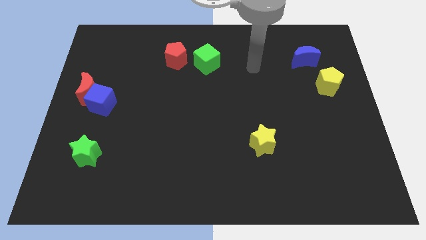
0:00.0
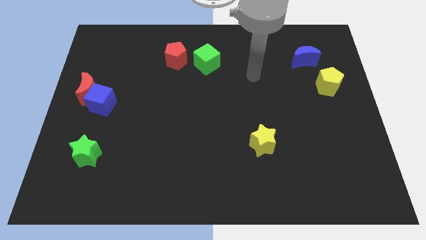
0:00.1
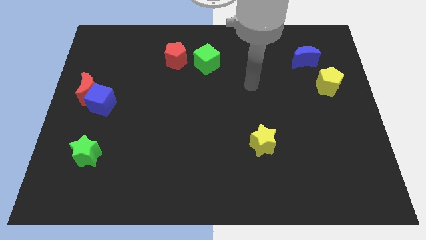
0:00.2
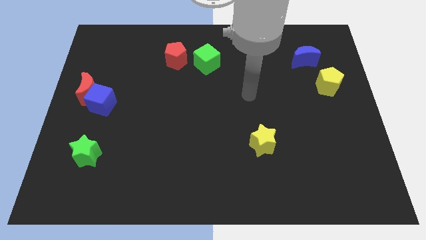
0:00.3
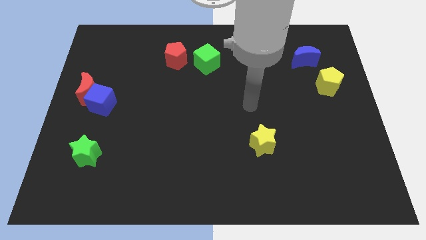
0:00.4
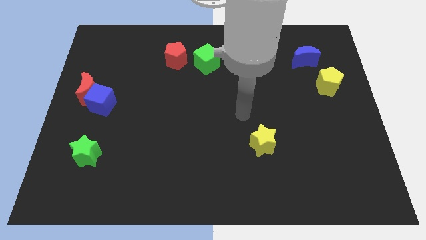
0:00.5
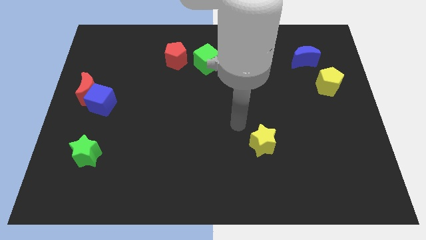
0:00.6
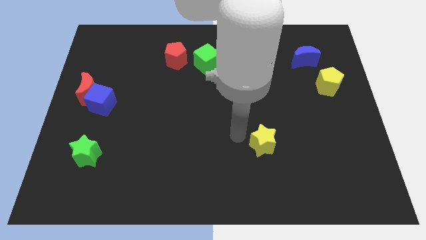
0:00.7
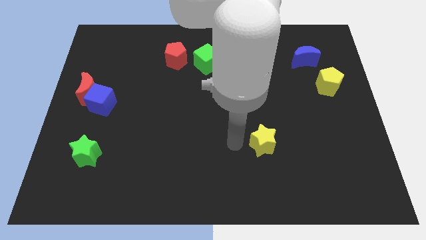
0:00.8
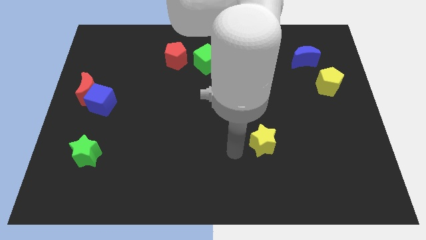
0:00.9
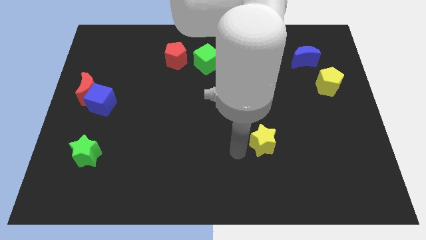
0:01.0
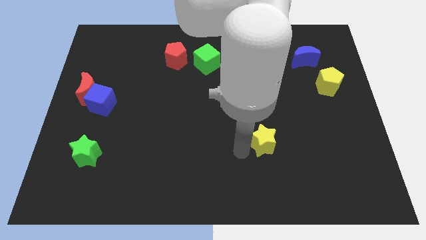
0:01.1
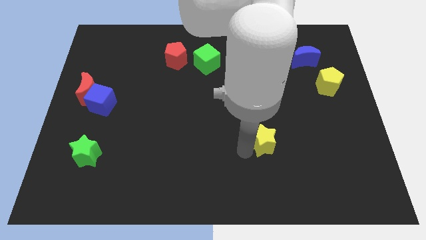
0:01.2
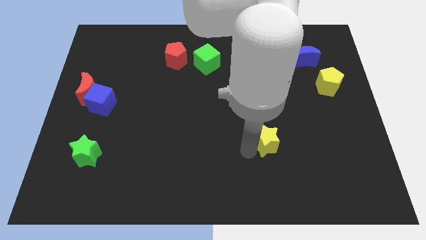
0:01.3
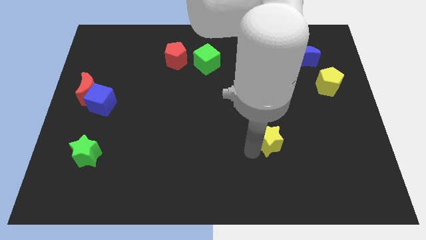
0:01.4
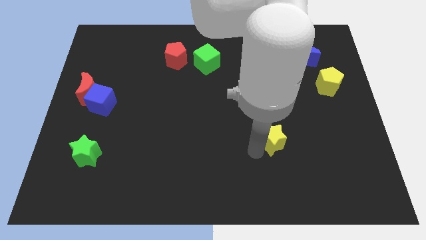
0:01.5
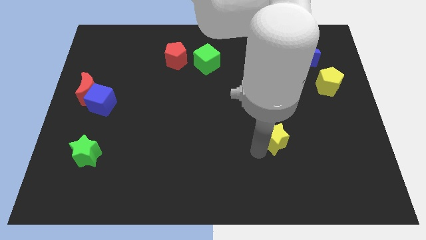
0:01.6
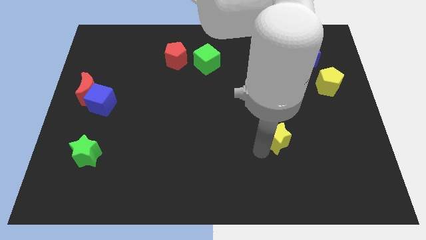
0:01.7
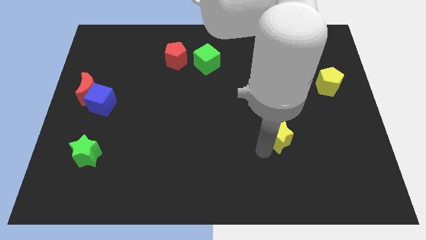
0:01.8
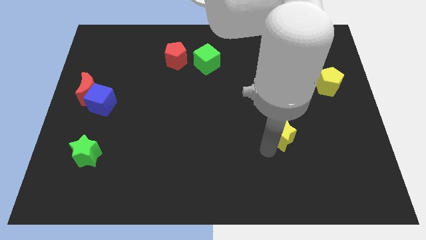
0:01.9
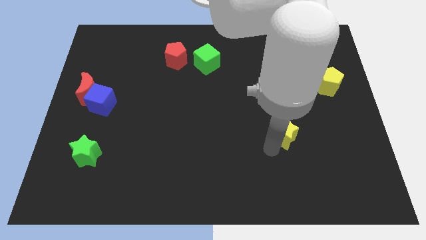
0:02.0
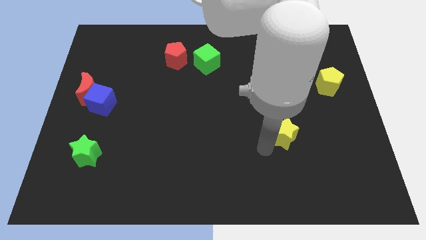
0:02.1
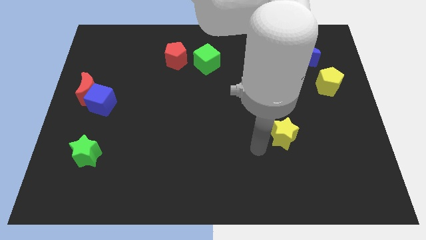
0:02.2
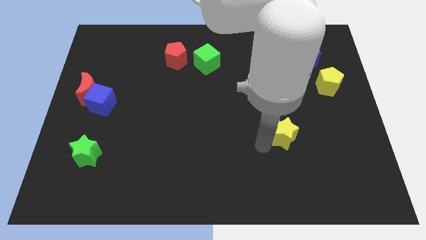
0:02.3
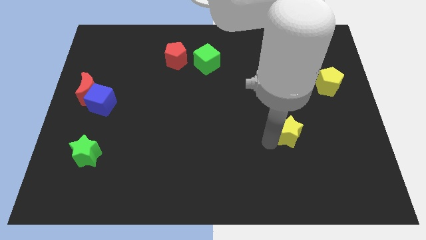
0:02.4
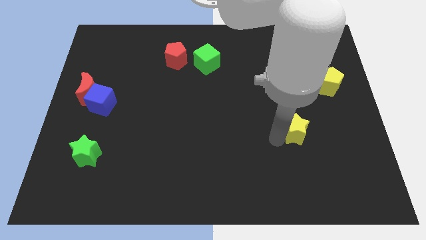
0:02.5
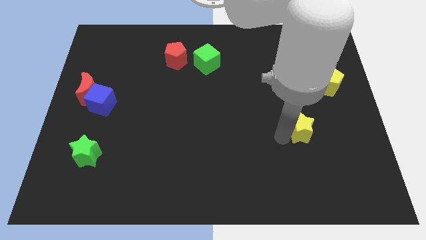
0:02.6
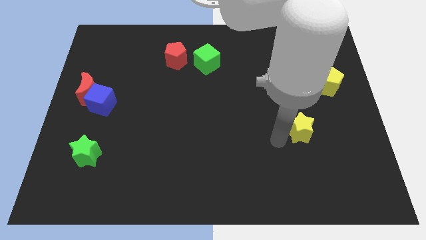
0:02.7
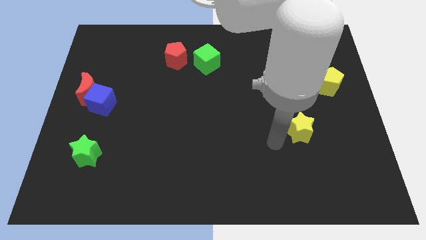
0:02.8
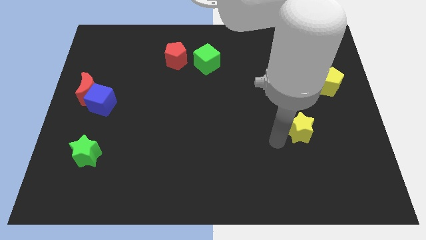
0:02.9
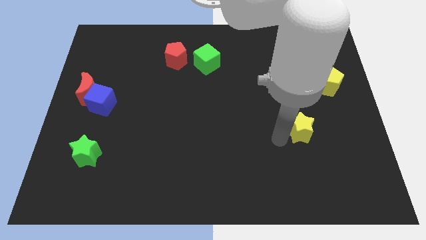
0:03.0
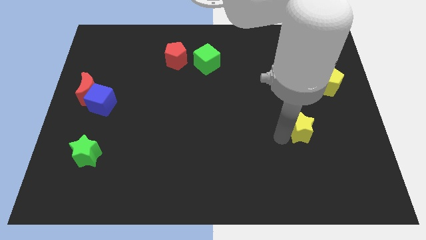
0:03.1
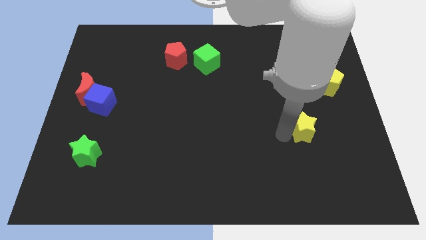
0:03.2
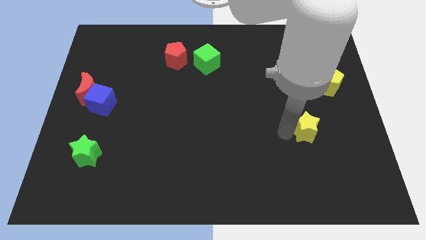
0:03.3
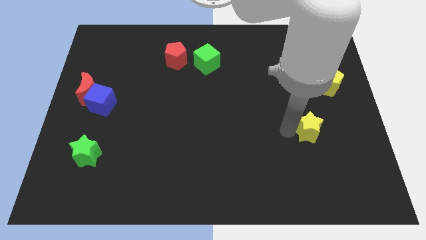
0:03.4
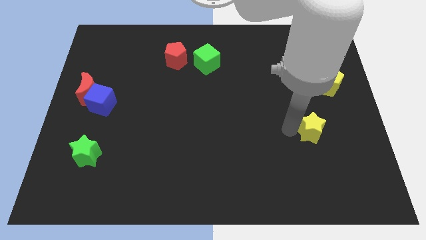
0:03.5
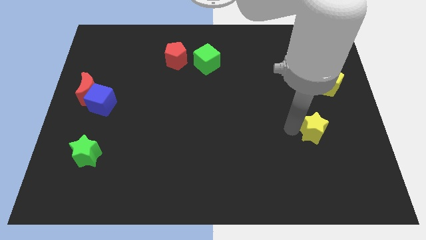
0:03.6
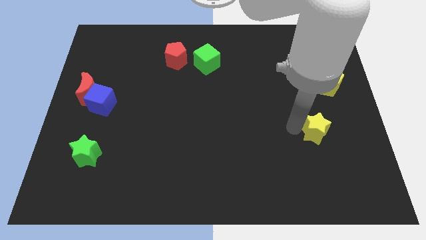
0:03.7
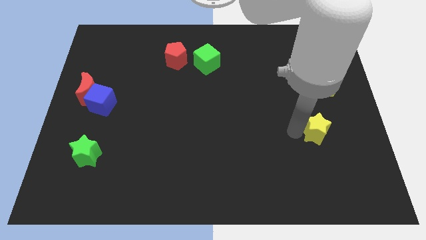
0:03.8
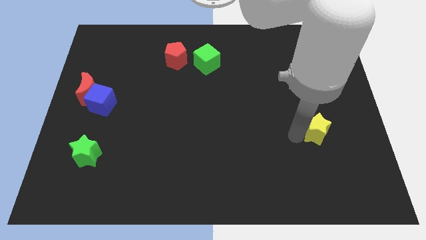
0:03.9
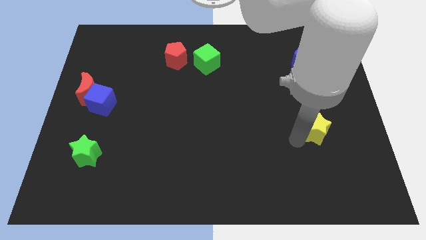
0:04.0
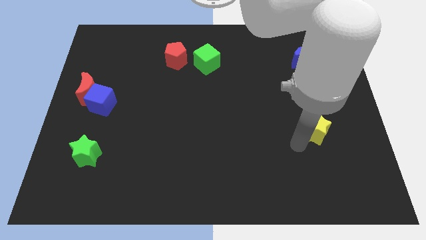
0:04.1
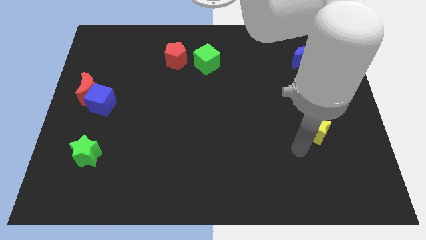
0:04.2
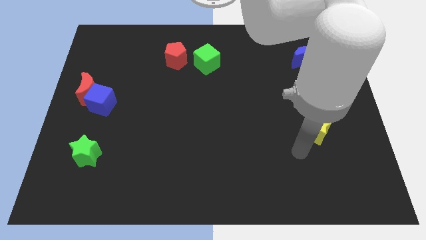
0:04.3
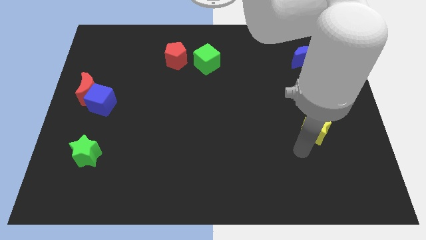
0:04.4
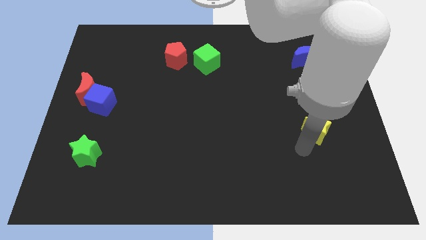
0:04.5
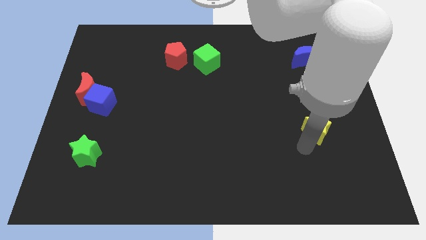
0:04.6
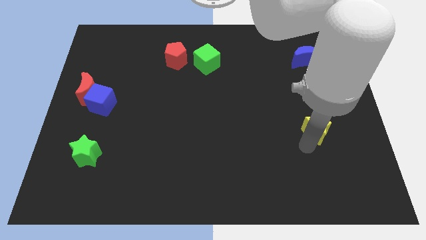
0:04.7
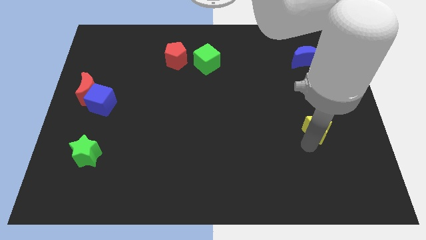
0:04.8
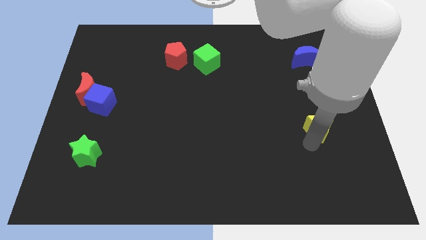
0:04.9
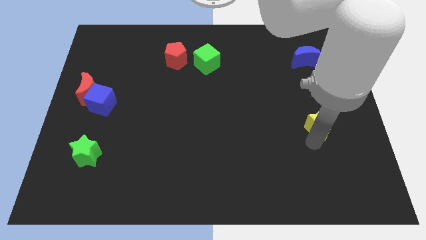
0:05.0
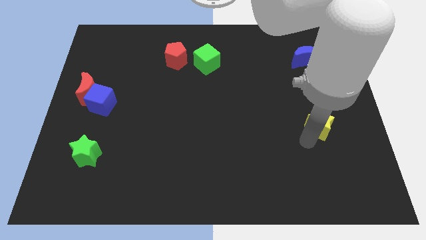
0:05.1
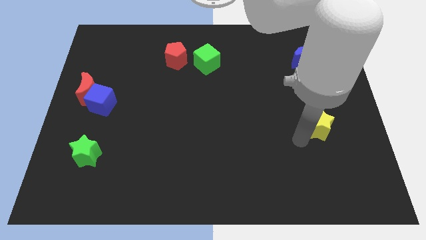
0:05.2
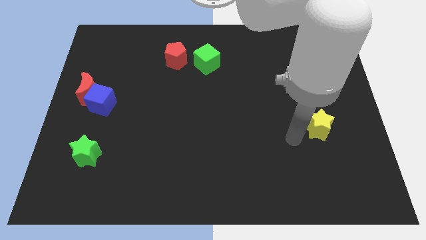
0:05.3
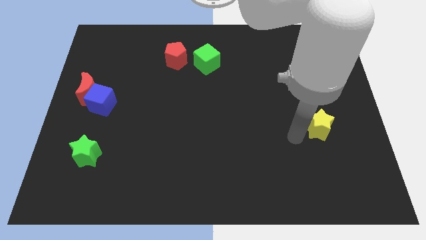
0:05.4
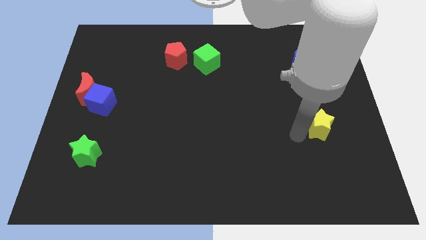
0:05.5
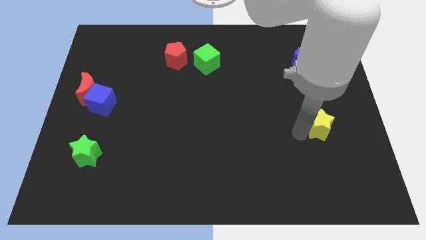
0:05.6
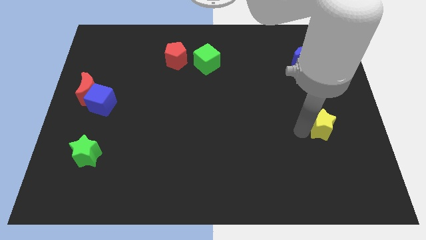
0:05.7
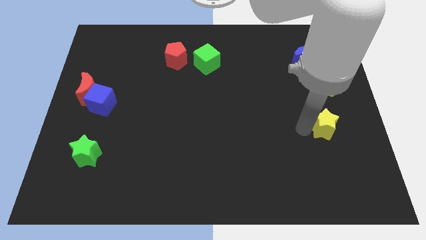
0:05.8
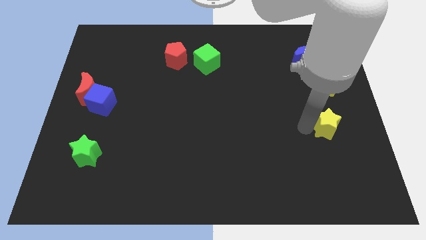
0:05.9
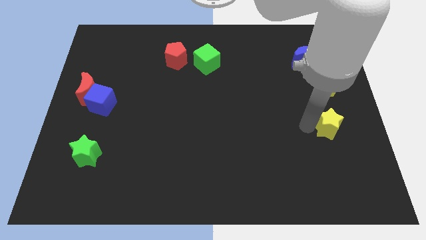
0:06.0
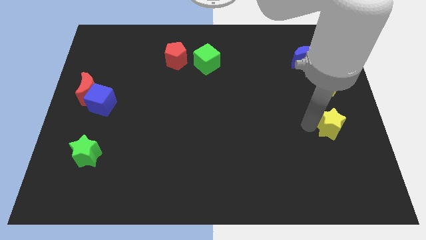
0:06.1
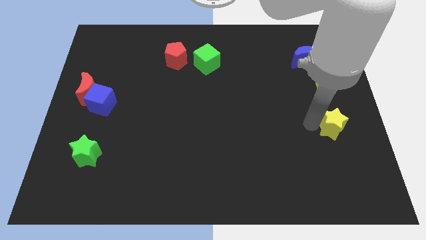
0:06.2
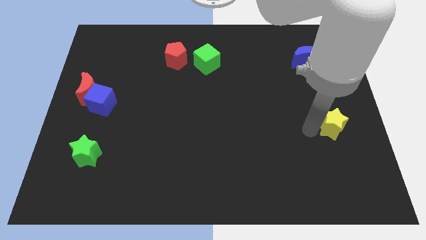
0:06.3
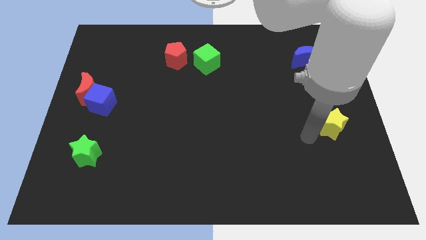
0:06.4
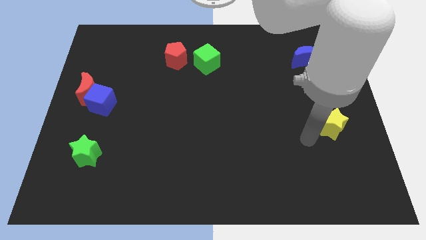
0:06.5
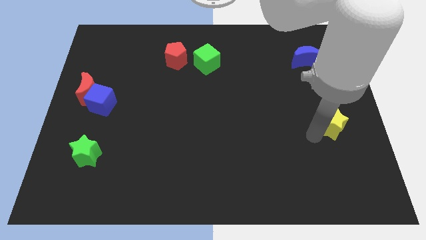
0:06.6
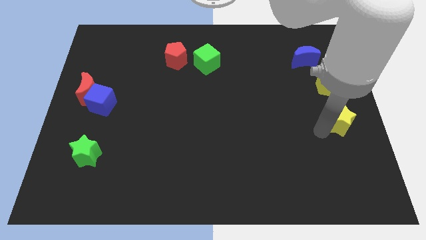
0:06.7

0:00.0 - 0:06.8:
slide the yellow star to the right side

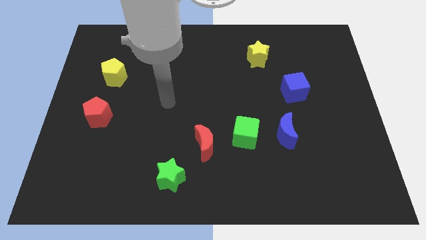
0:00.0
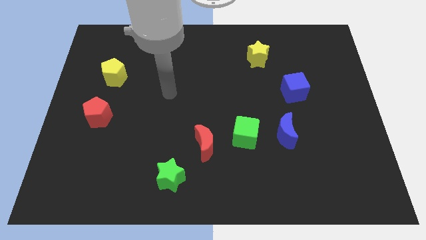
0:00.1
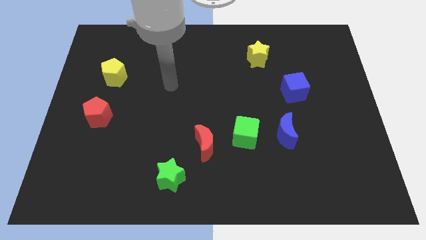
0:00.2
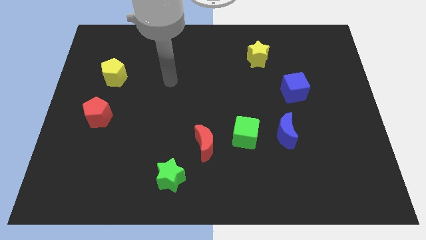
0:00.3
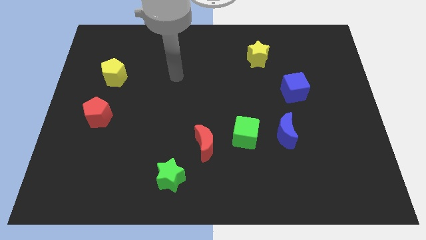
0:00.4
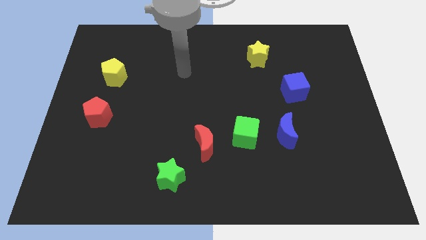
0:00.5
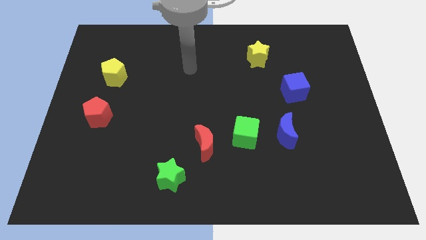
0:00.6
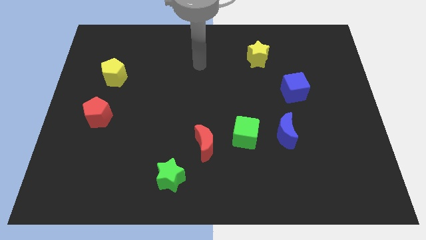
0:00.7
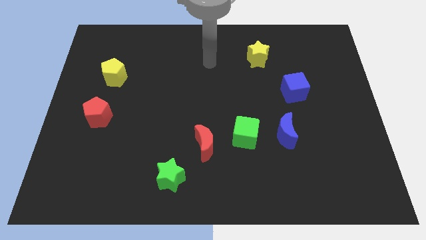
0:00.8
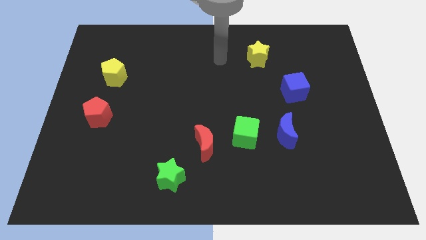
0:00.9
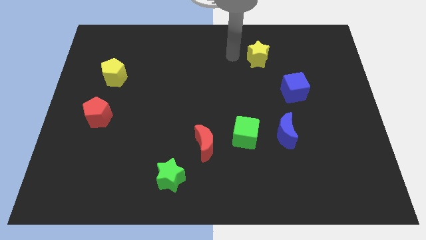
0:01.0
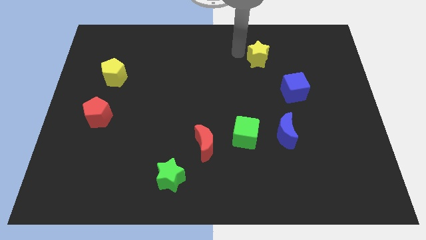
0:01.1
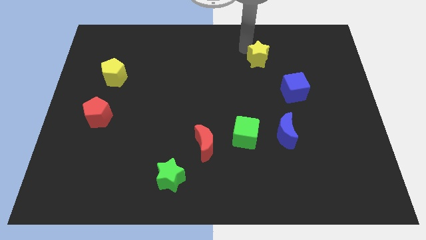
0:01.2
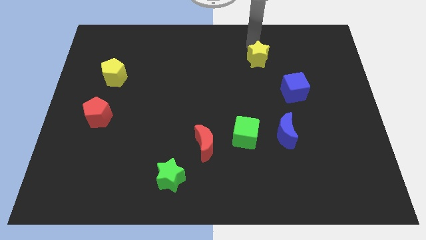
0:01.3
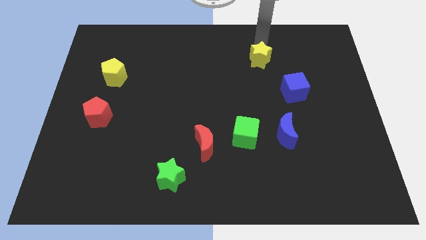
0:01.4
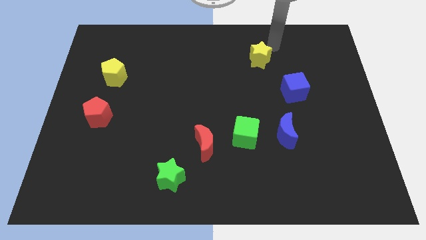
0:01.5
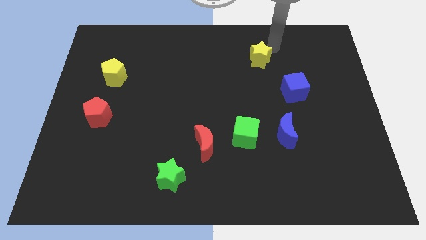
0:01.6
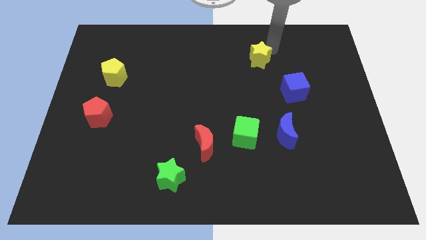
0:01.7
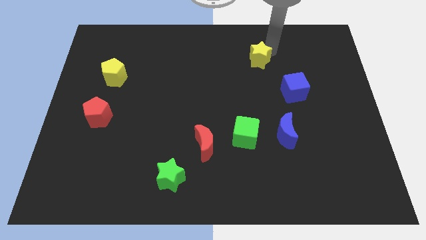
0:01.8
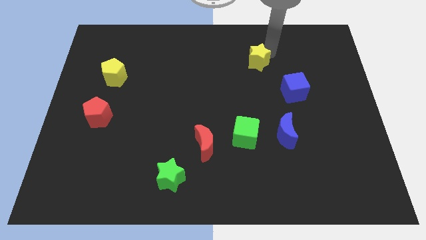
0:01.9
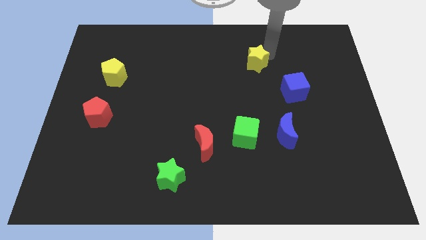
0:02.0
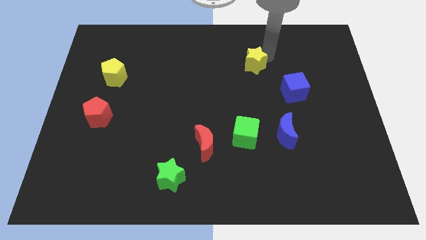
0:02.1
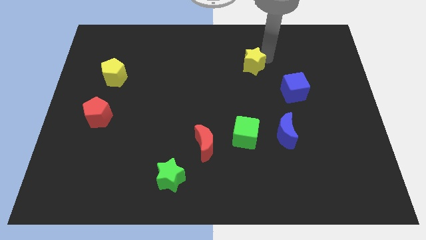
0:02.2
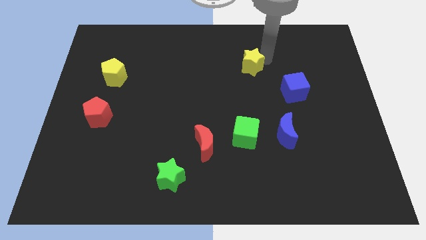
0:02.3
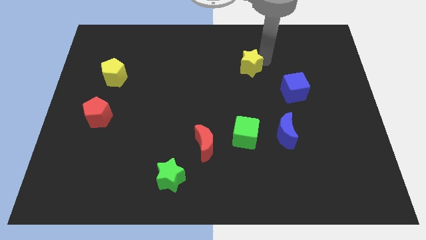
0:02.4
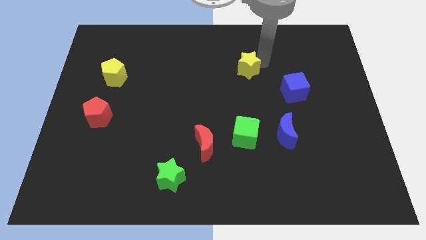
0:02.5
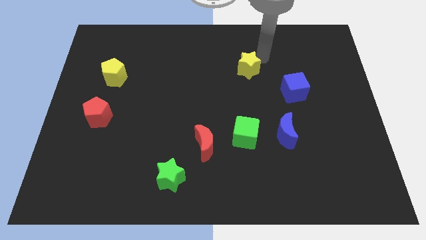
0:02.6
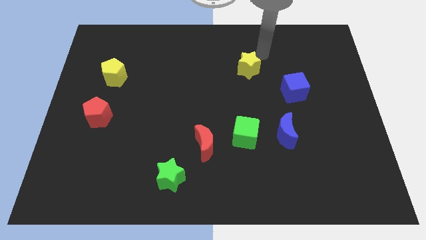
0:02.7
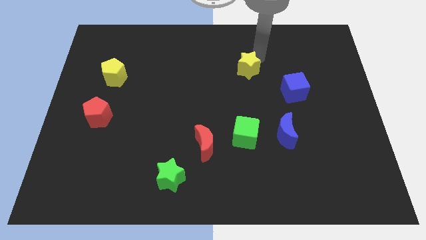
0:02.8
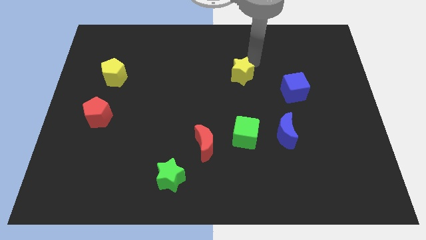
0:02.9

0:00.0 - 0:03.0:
push the yellow star to the center of the board
